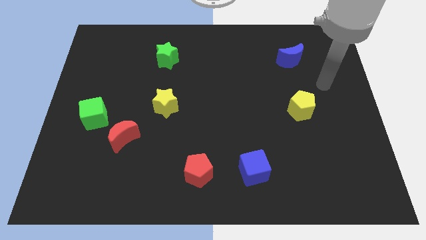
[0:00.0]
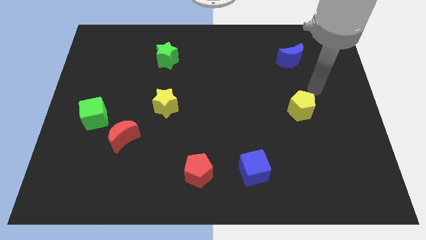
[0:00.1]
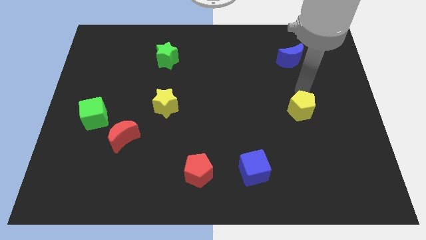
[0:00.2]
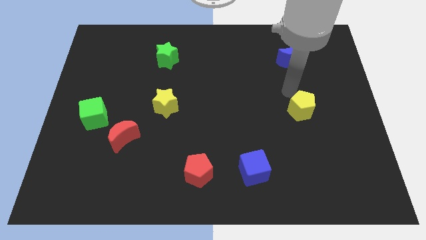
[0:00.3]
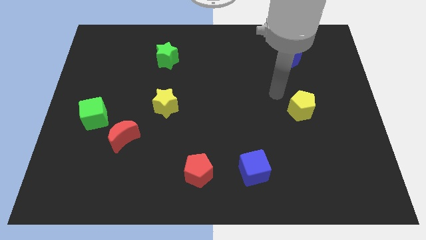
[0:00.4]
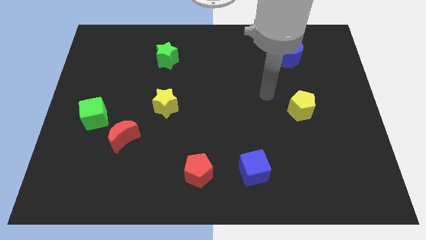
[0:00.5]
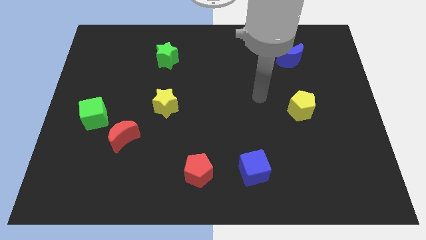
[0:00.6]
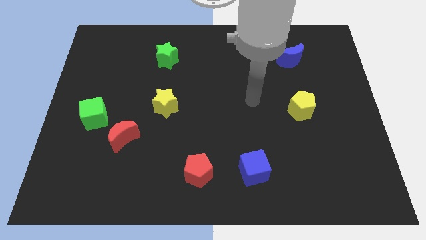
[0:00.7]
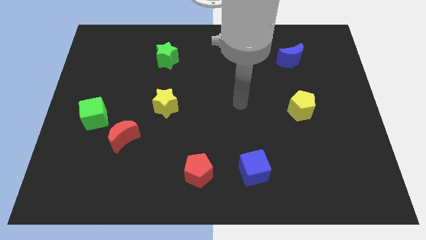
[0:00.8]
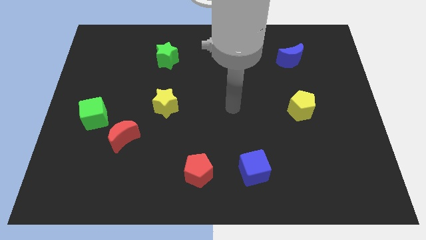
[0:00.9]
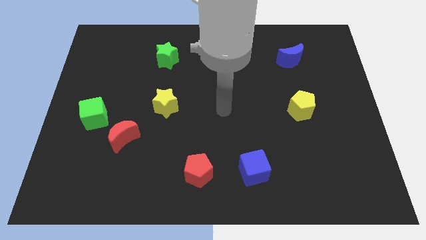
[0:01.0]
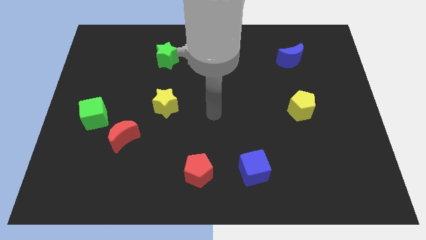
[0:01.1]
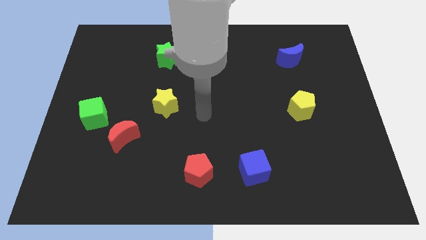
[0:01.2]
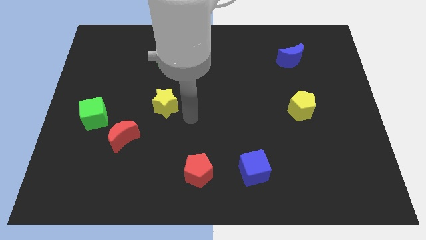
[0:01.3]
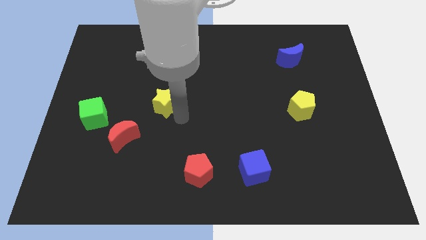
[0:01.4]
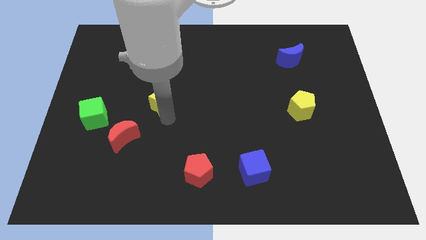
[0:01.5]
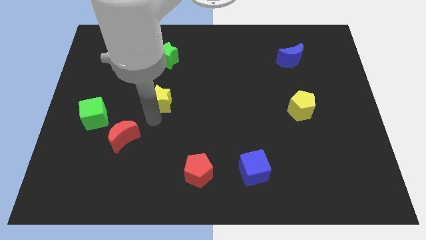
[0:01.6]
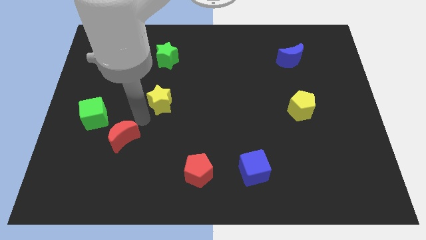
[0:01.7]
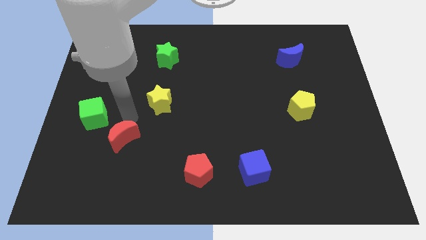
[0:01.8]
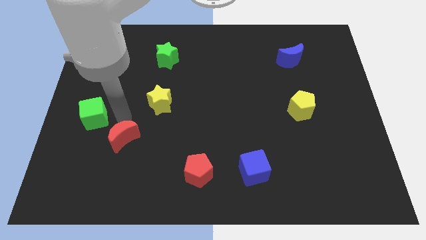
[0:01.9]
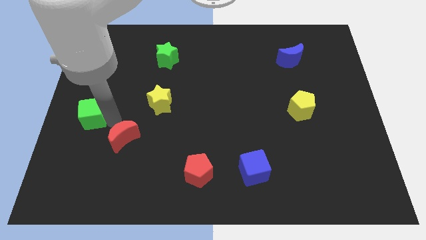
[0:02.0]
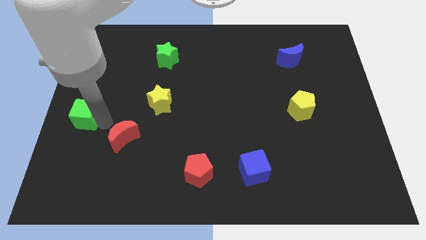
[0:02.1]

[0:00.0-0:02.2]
move the red moon away from the green cube

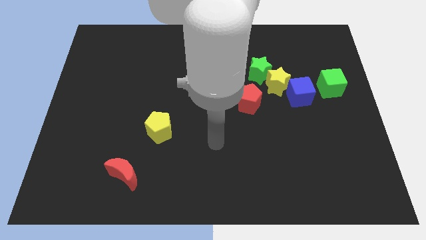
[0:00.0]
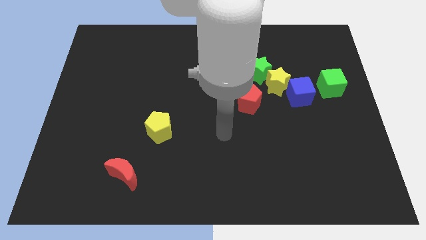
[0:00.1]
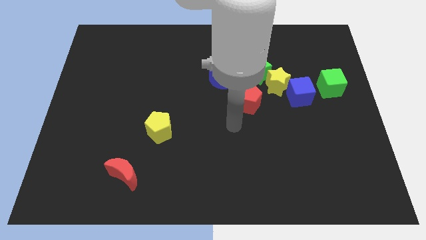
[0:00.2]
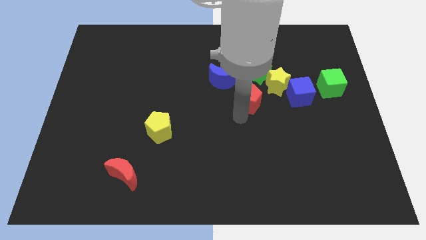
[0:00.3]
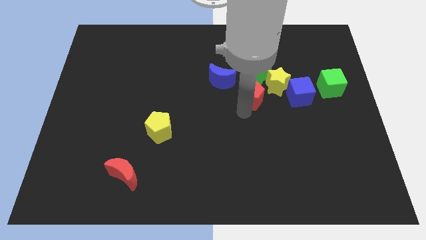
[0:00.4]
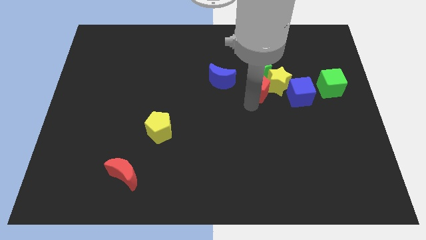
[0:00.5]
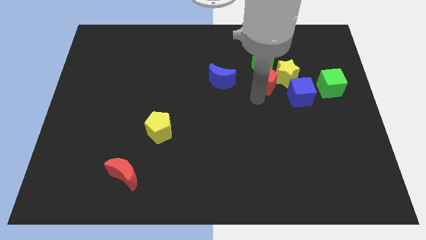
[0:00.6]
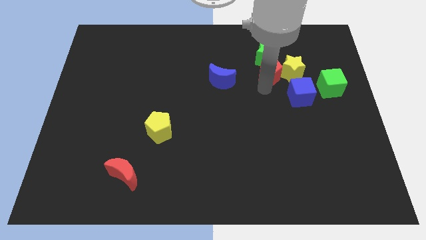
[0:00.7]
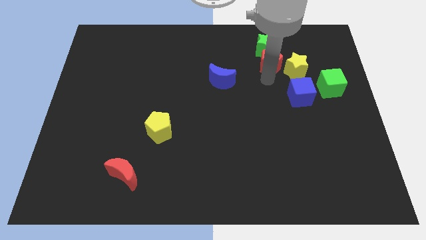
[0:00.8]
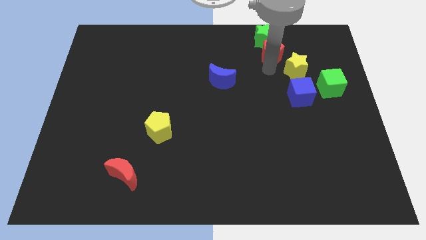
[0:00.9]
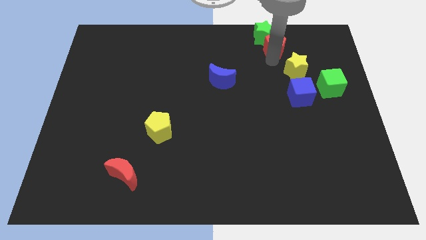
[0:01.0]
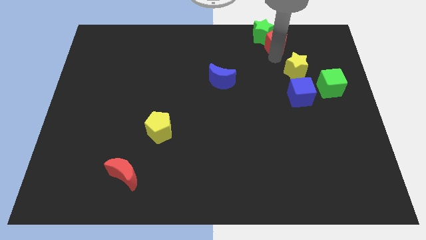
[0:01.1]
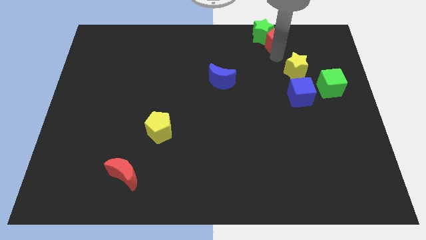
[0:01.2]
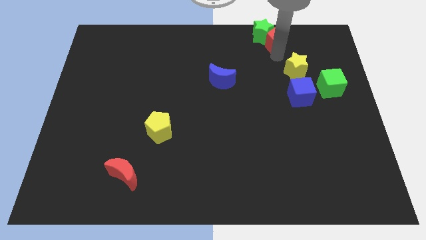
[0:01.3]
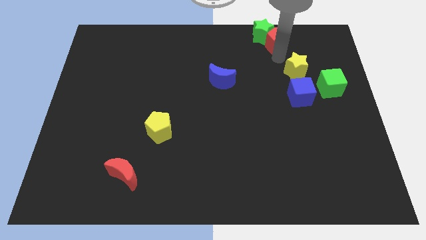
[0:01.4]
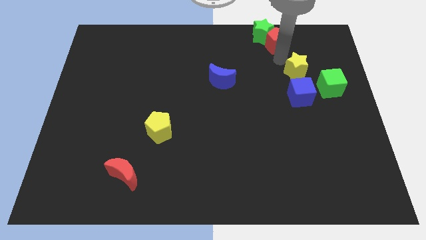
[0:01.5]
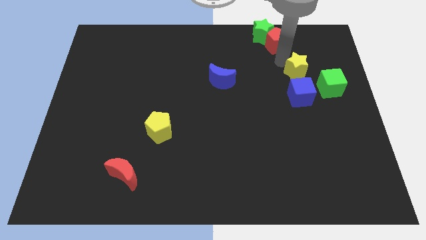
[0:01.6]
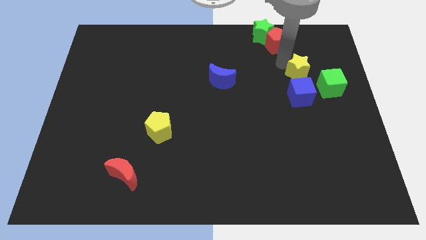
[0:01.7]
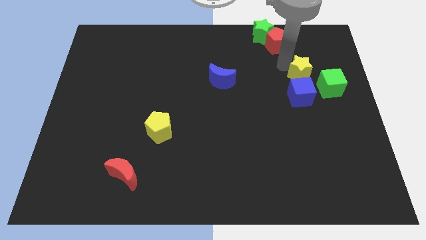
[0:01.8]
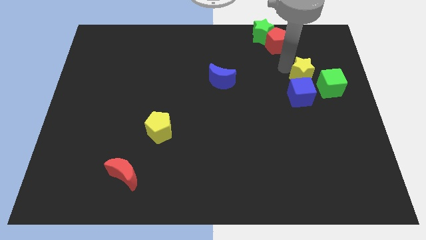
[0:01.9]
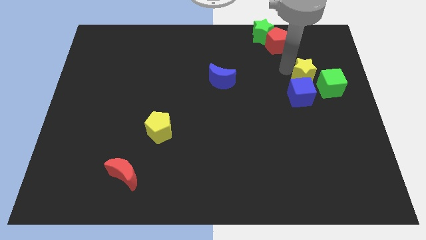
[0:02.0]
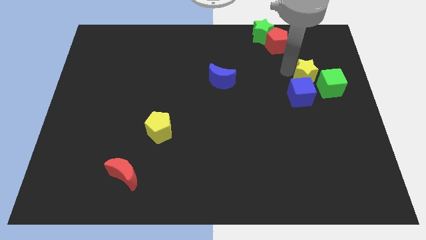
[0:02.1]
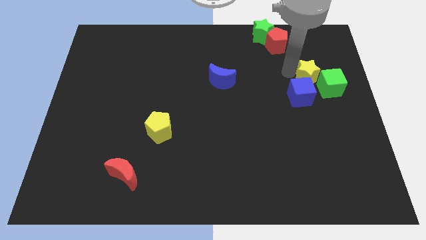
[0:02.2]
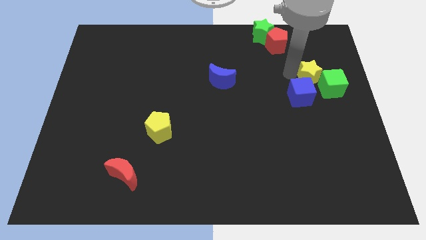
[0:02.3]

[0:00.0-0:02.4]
separate the yellow star from the green star, blue cube, and red pentagon

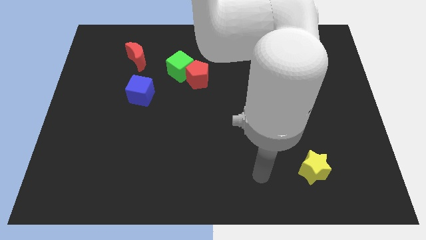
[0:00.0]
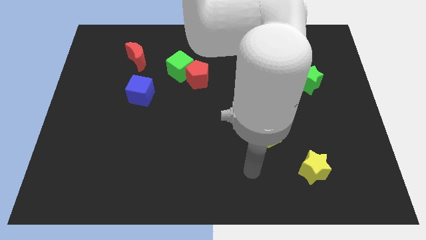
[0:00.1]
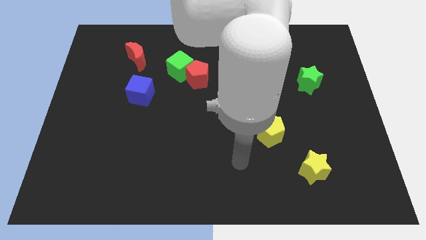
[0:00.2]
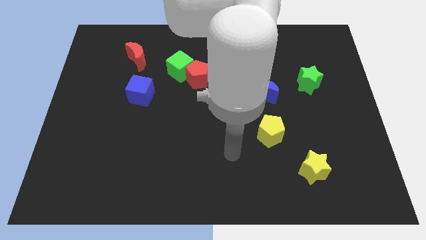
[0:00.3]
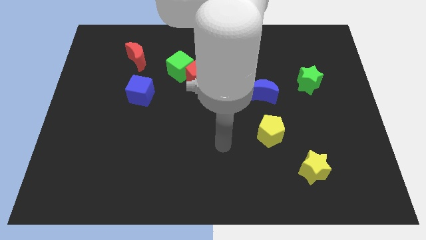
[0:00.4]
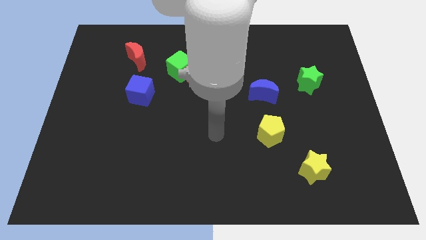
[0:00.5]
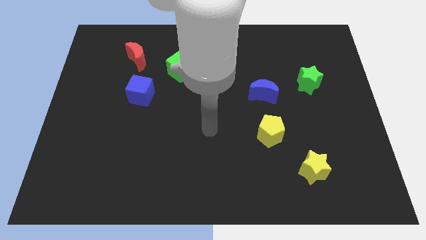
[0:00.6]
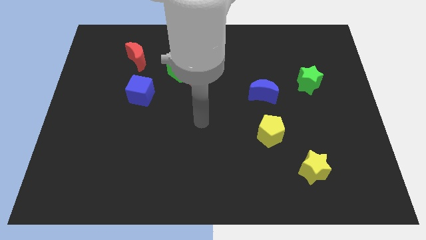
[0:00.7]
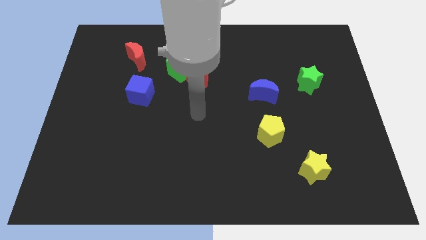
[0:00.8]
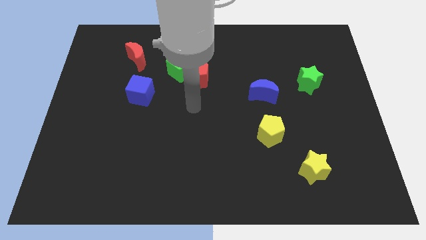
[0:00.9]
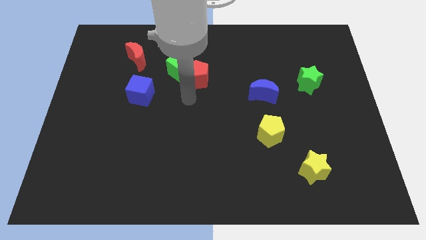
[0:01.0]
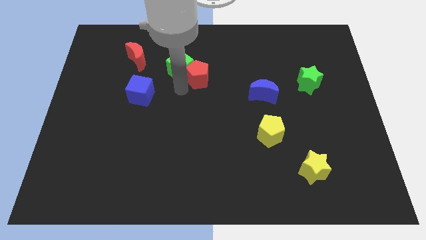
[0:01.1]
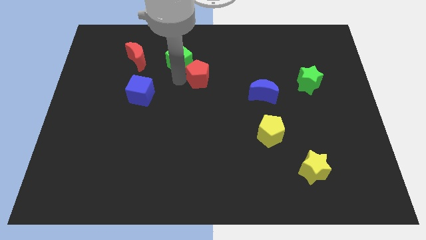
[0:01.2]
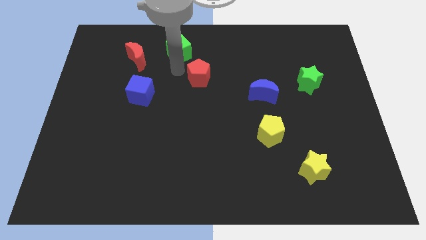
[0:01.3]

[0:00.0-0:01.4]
separate the red pentagon from the green cube

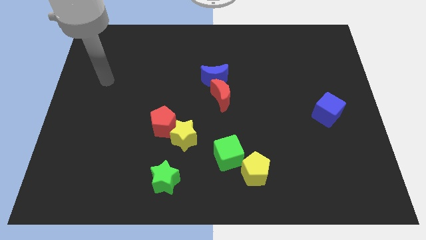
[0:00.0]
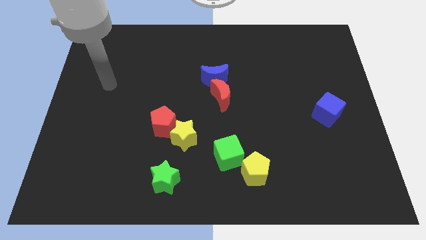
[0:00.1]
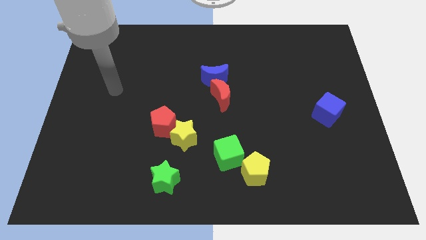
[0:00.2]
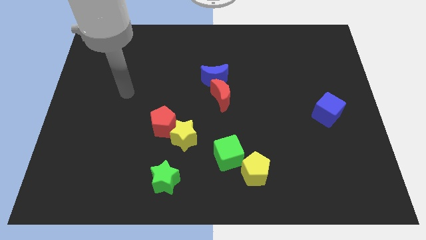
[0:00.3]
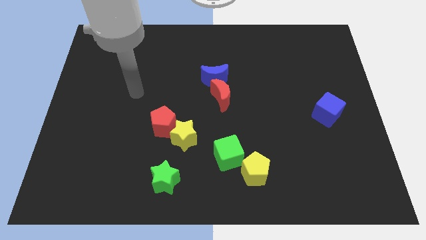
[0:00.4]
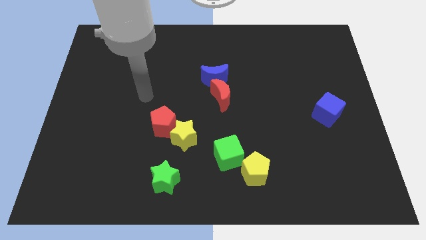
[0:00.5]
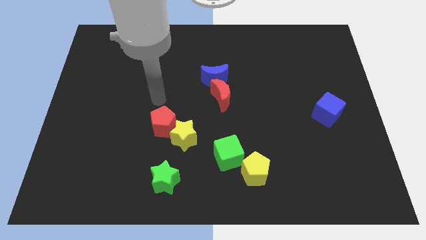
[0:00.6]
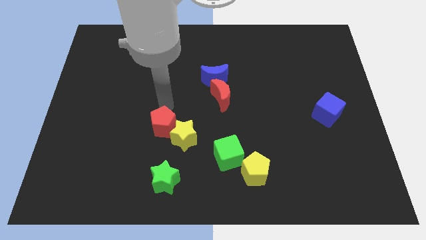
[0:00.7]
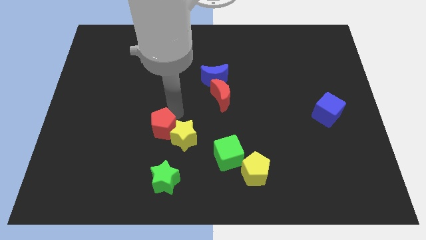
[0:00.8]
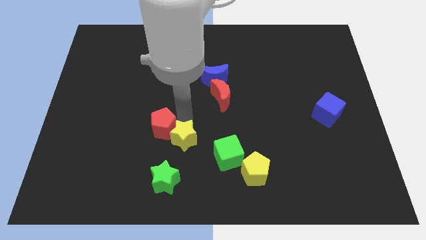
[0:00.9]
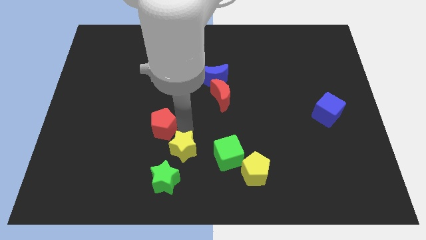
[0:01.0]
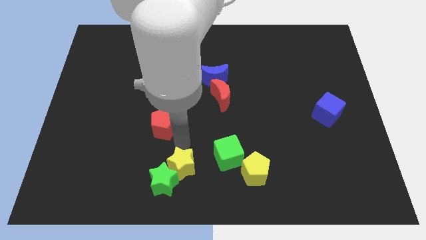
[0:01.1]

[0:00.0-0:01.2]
move the red pentagon away from the yellow star

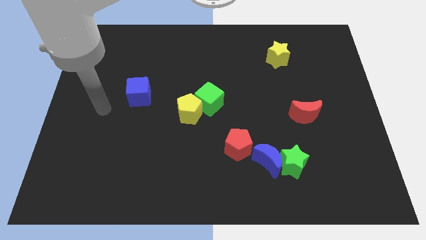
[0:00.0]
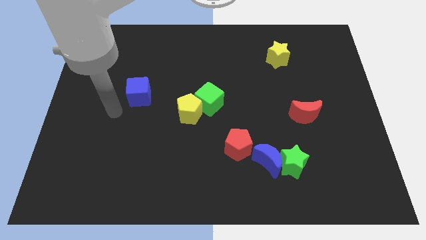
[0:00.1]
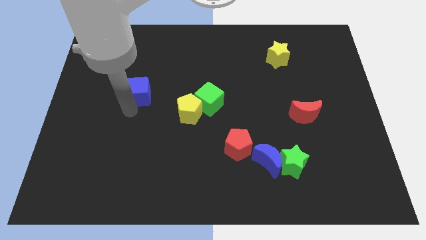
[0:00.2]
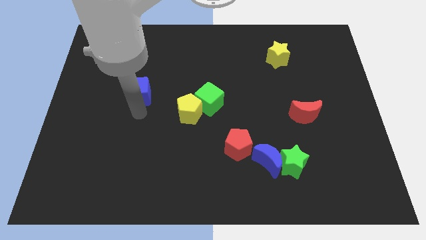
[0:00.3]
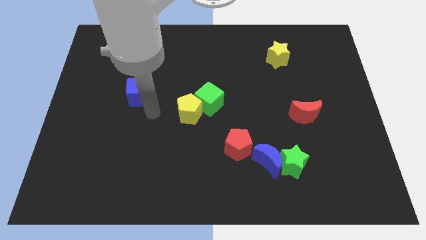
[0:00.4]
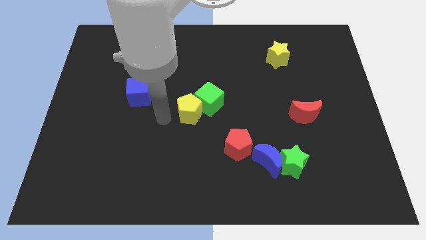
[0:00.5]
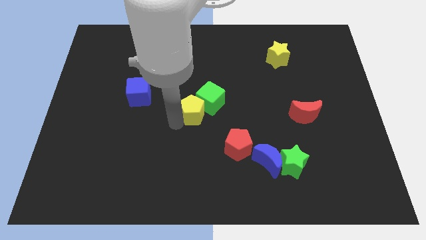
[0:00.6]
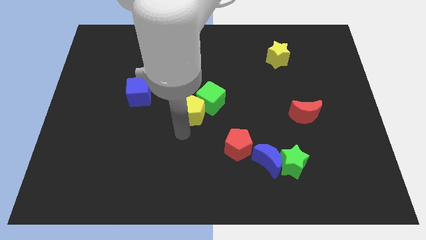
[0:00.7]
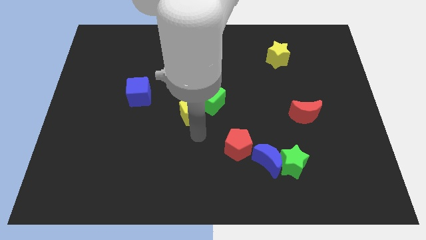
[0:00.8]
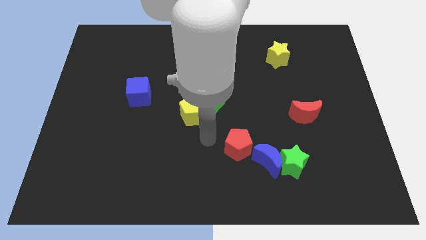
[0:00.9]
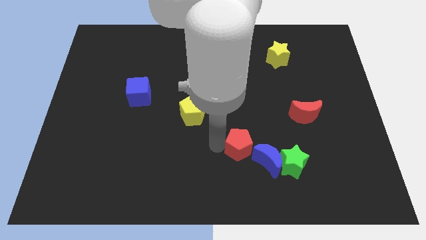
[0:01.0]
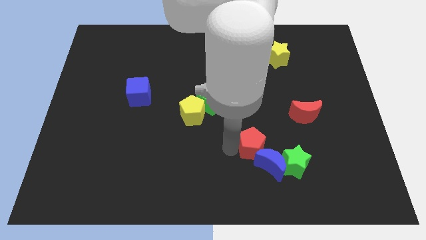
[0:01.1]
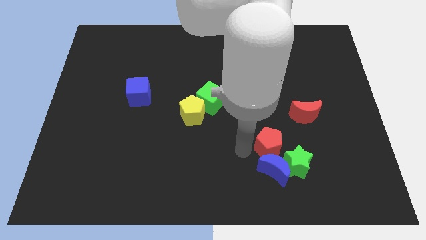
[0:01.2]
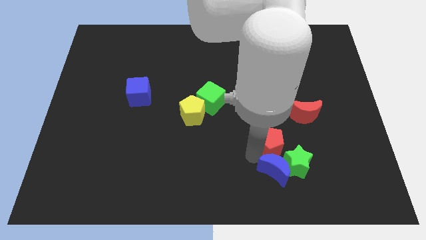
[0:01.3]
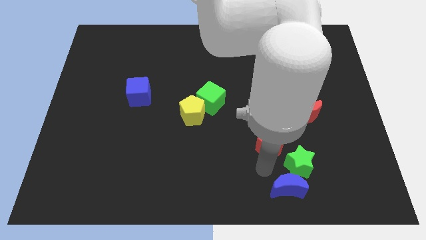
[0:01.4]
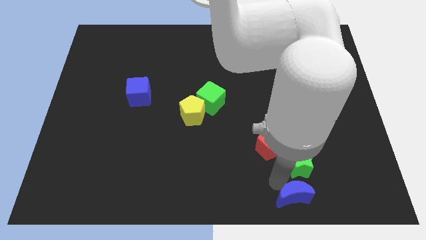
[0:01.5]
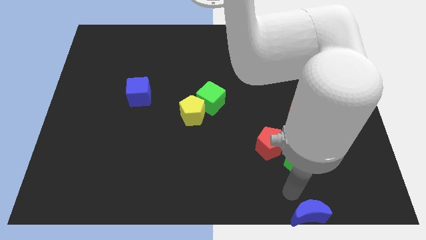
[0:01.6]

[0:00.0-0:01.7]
move the green star away from the blue moon

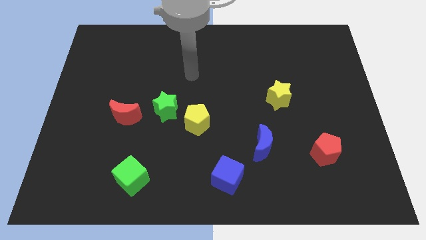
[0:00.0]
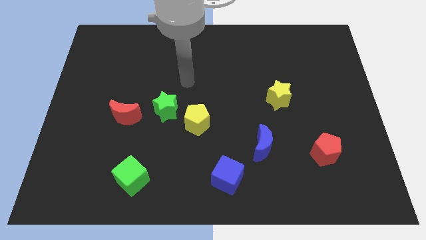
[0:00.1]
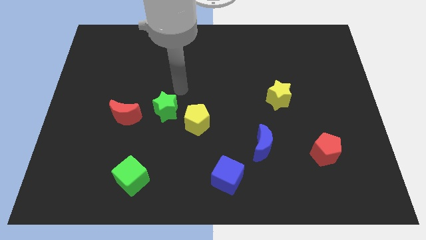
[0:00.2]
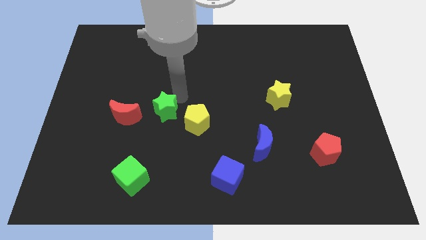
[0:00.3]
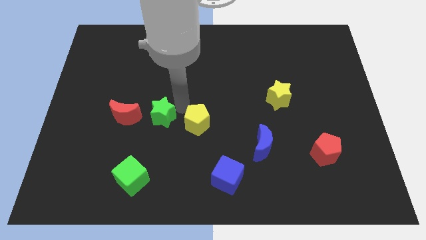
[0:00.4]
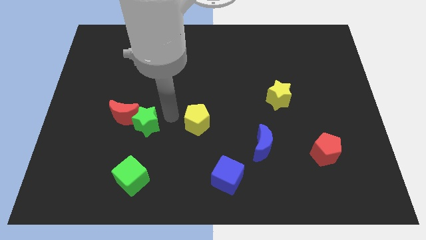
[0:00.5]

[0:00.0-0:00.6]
pull the yellow pentagon apart from the green star
